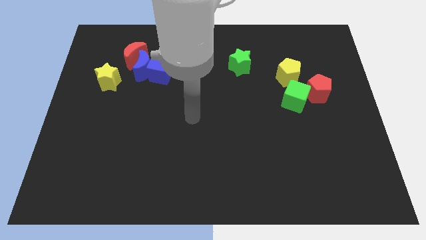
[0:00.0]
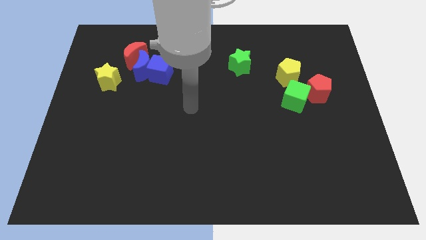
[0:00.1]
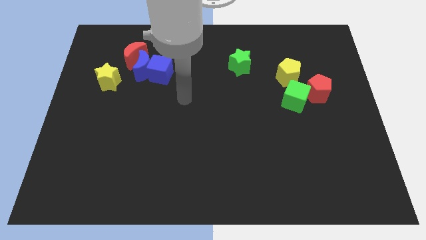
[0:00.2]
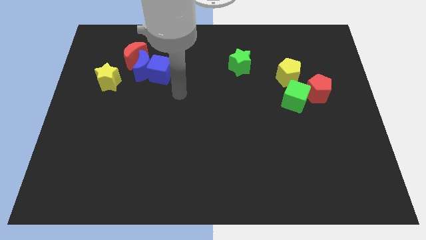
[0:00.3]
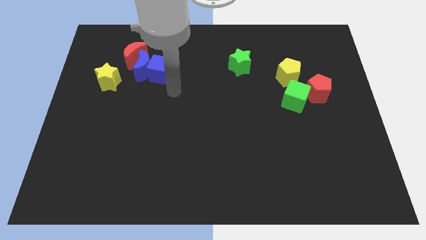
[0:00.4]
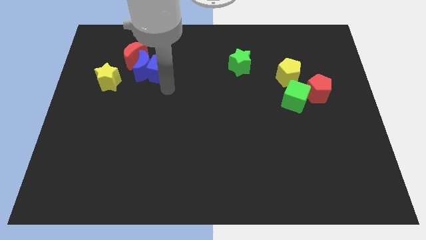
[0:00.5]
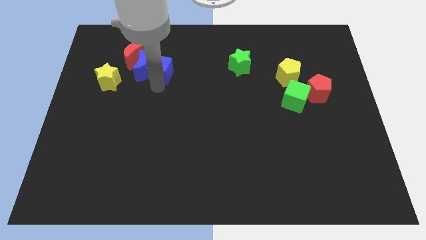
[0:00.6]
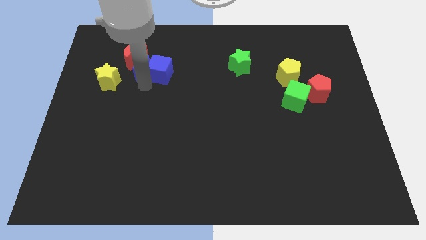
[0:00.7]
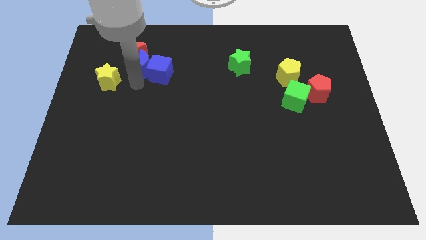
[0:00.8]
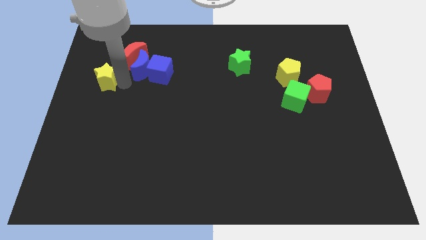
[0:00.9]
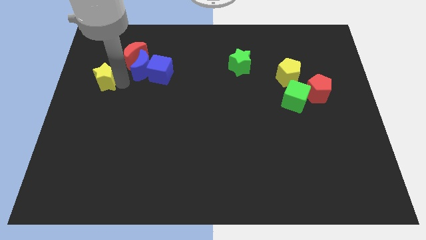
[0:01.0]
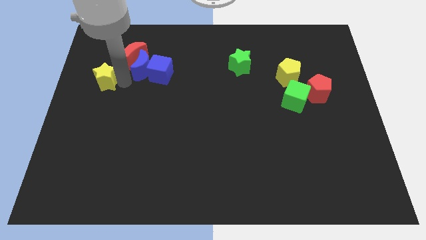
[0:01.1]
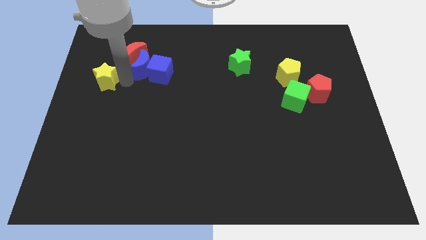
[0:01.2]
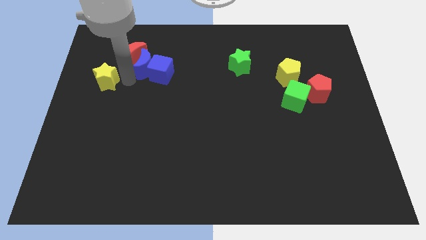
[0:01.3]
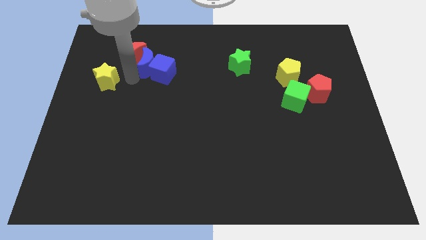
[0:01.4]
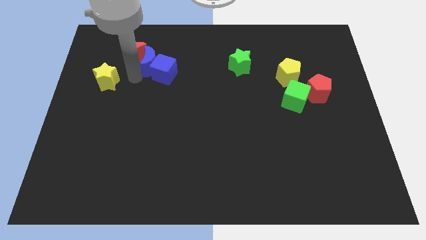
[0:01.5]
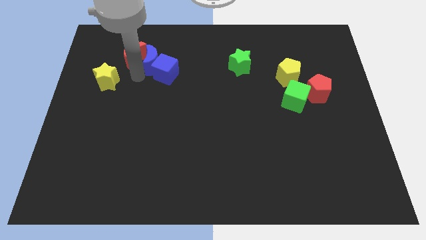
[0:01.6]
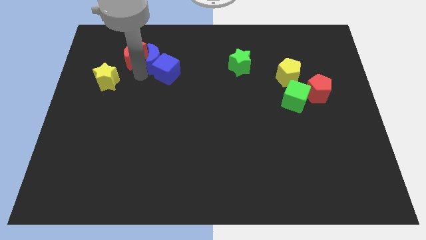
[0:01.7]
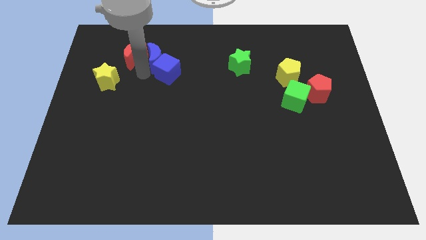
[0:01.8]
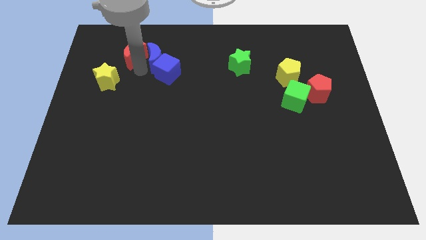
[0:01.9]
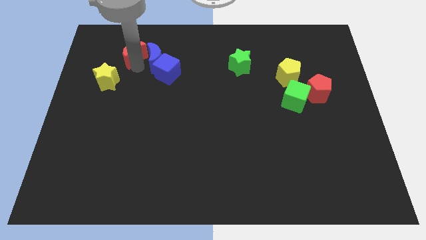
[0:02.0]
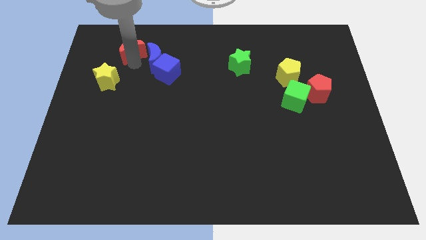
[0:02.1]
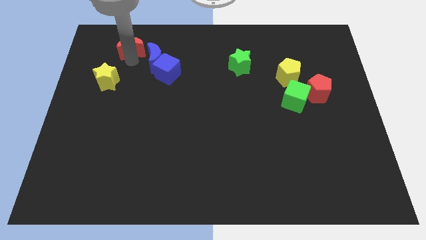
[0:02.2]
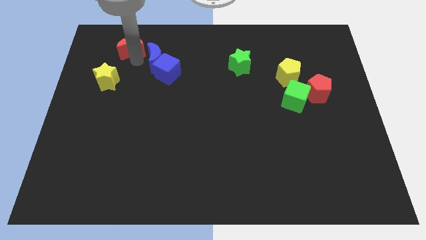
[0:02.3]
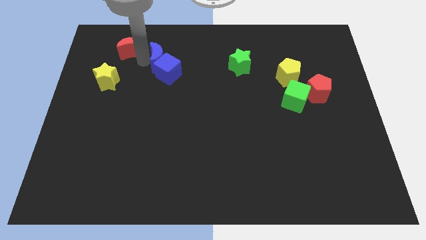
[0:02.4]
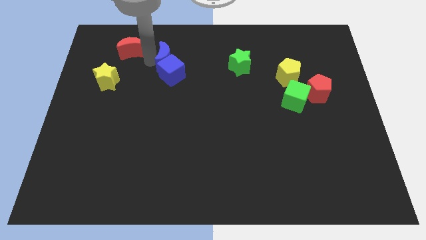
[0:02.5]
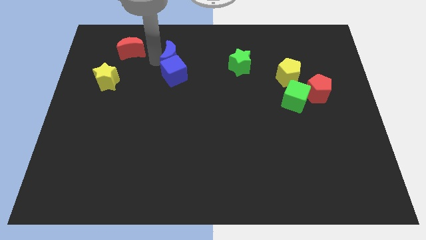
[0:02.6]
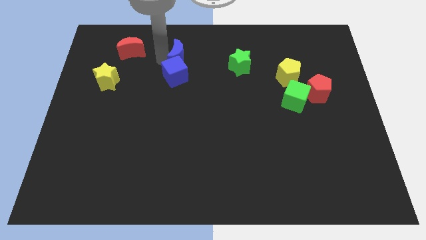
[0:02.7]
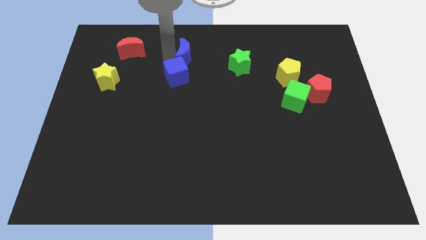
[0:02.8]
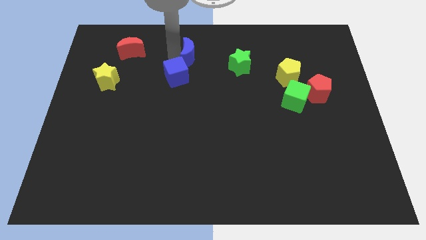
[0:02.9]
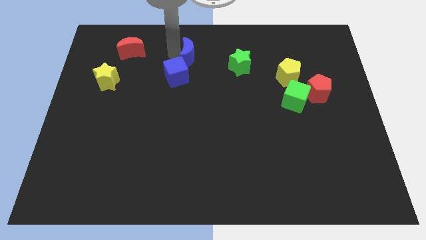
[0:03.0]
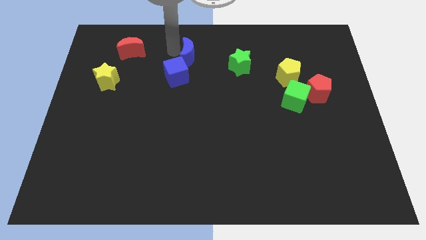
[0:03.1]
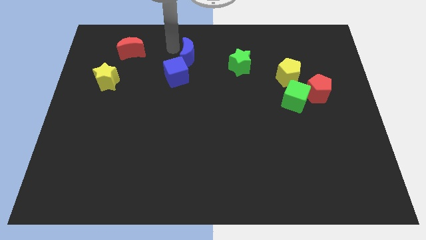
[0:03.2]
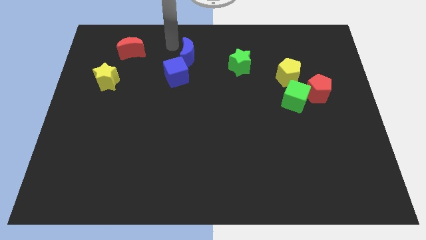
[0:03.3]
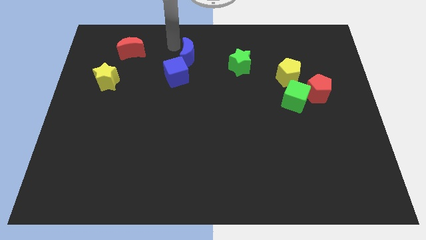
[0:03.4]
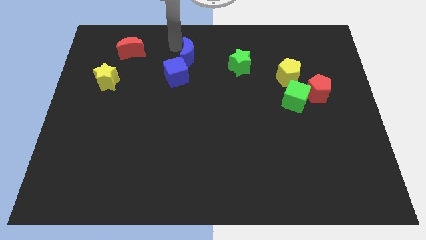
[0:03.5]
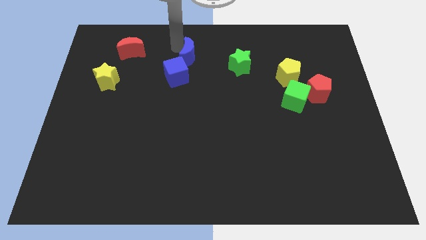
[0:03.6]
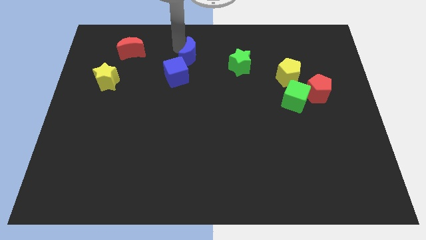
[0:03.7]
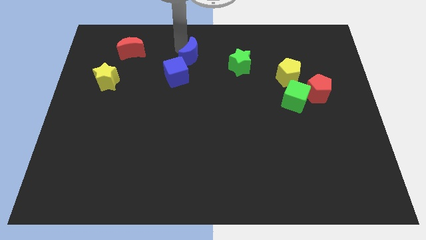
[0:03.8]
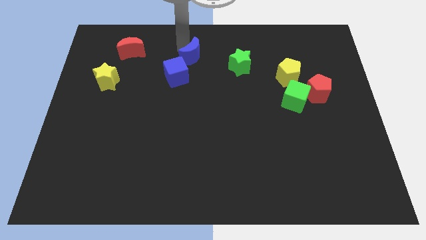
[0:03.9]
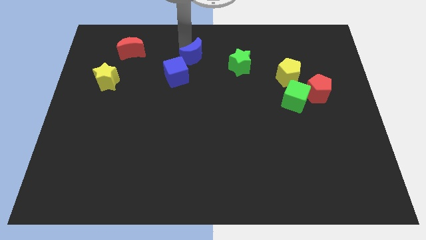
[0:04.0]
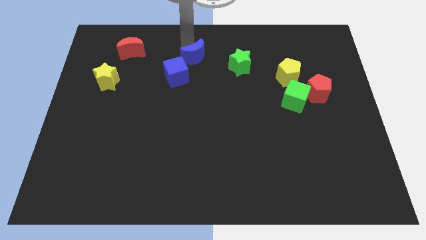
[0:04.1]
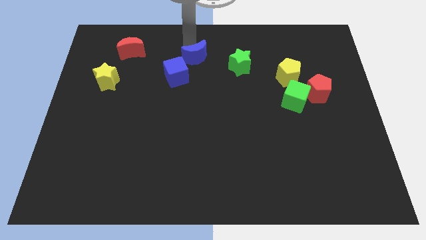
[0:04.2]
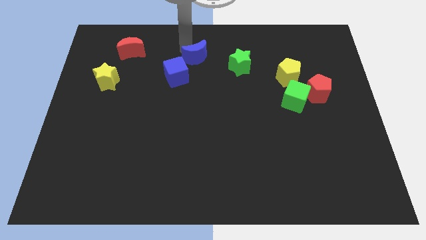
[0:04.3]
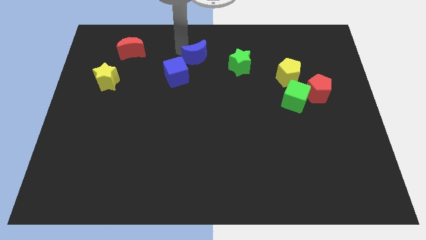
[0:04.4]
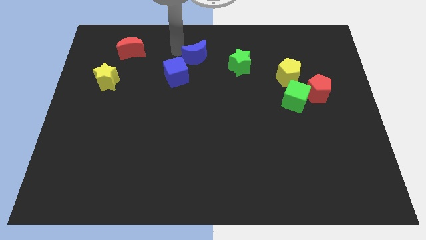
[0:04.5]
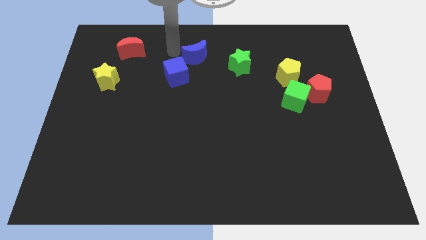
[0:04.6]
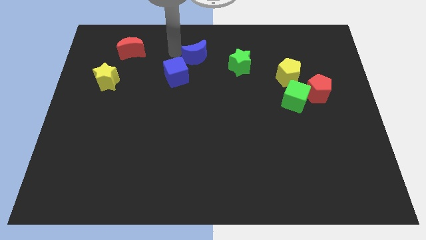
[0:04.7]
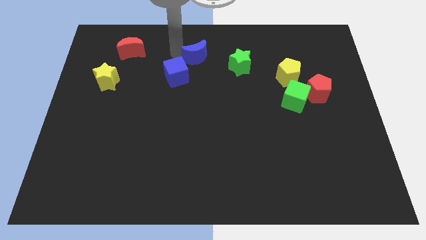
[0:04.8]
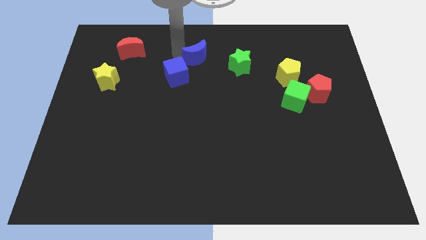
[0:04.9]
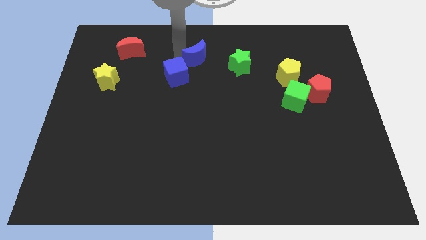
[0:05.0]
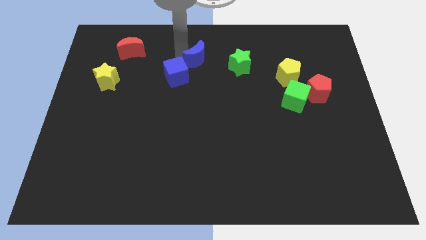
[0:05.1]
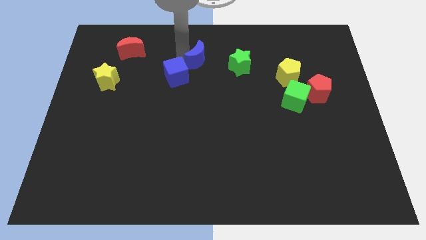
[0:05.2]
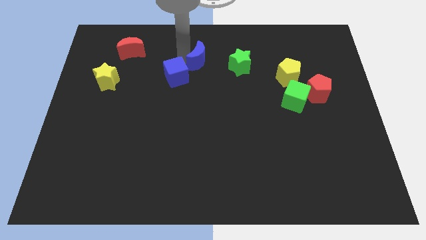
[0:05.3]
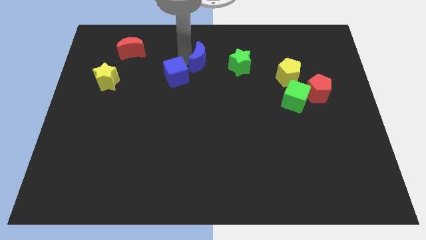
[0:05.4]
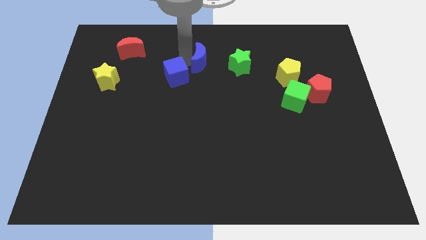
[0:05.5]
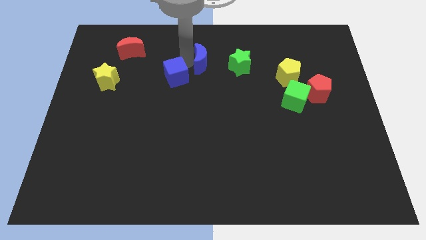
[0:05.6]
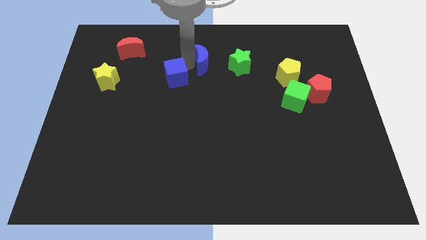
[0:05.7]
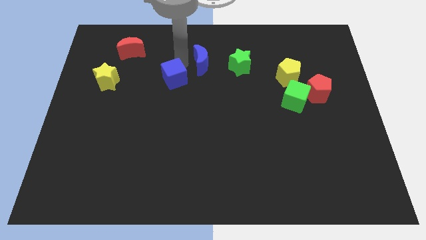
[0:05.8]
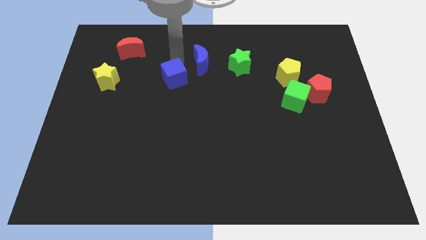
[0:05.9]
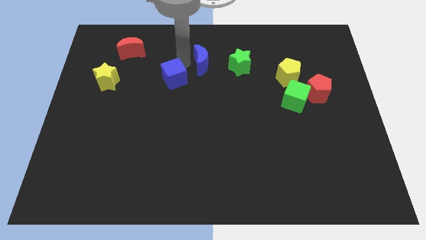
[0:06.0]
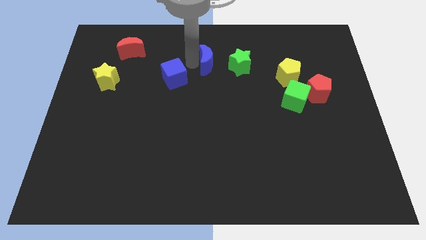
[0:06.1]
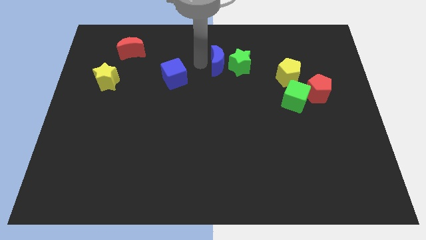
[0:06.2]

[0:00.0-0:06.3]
put the blue moon next to the green star
